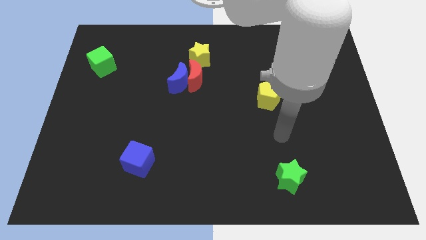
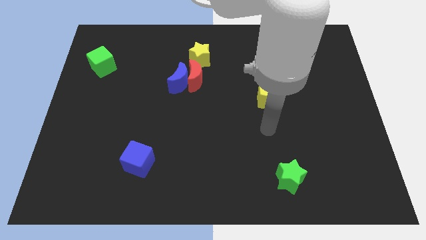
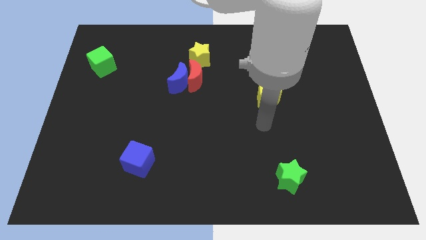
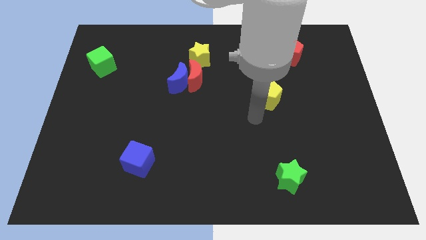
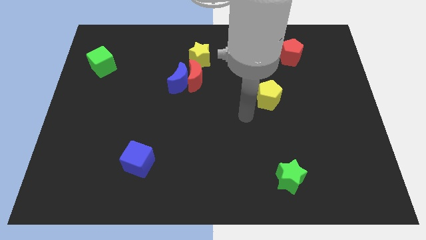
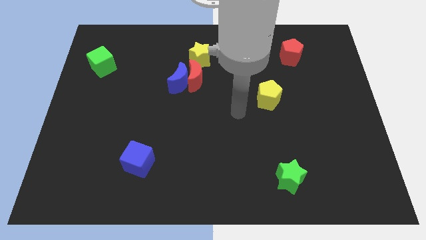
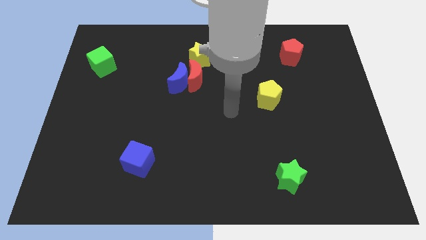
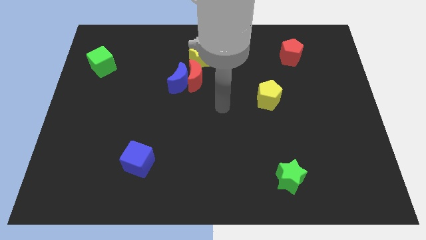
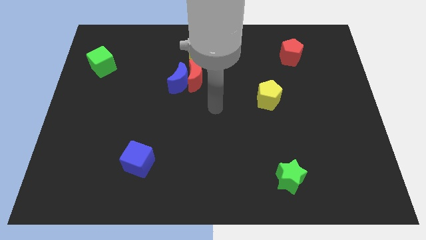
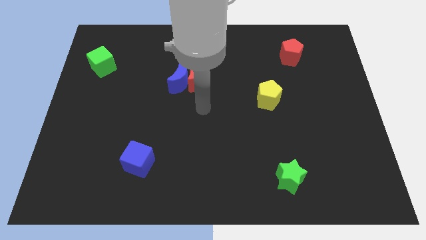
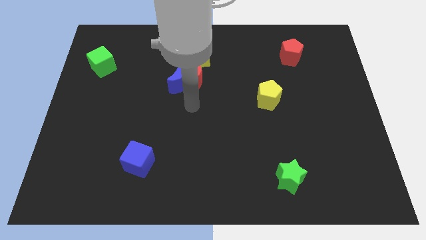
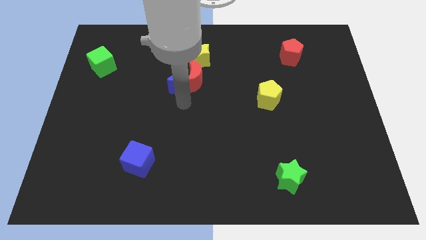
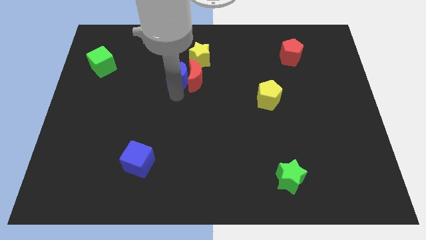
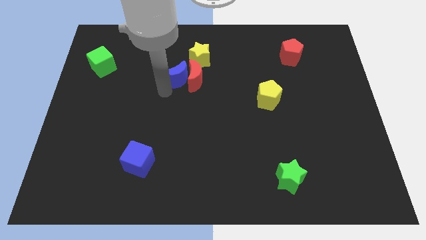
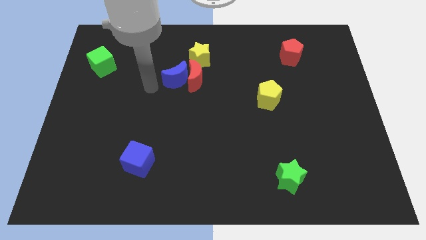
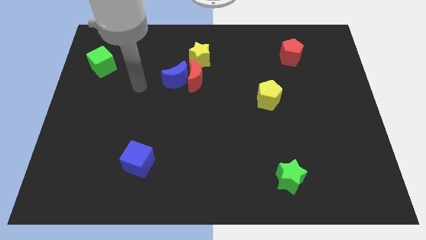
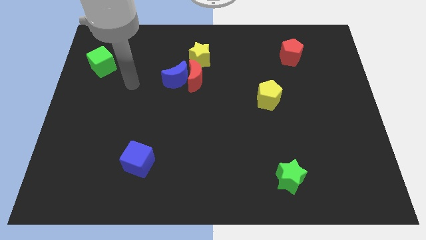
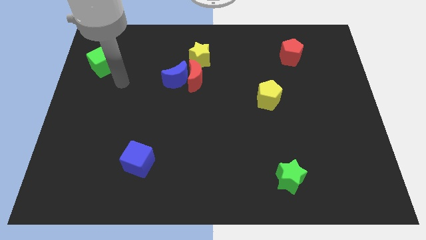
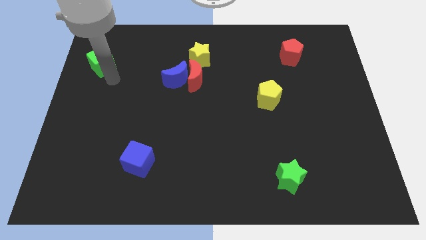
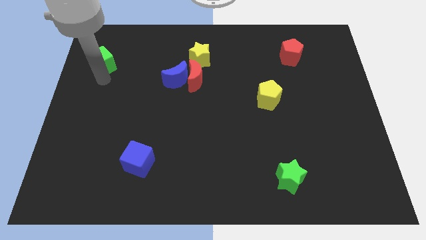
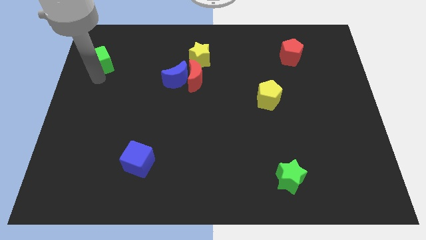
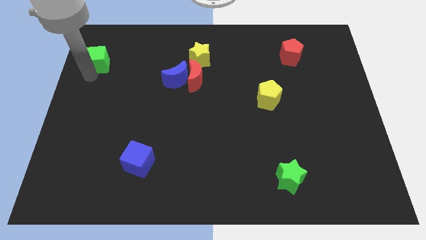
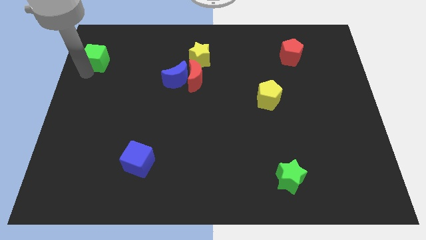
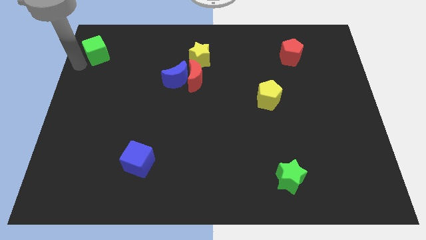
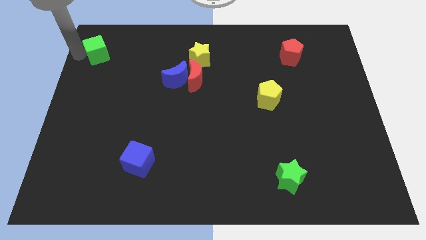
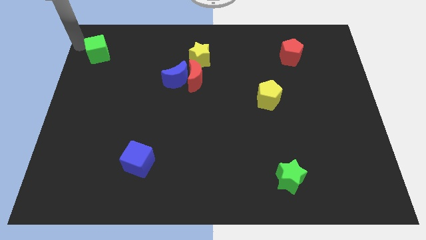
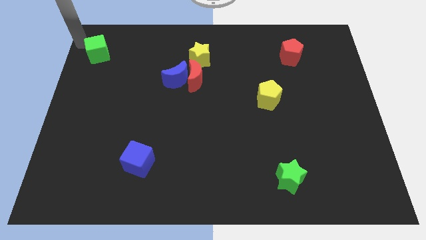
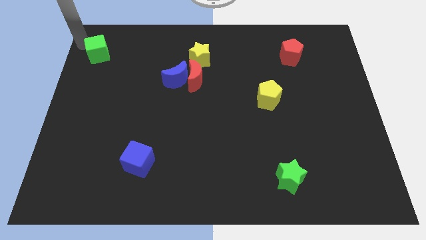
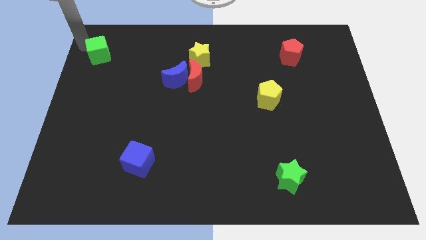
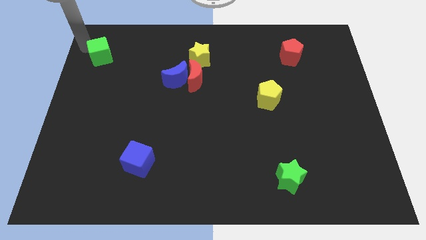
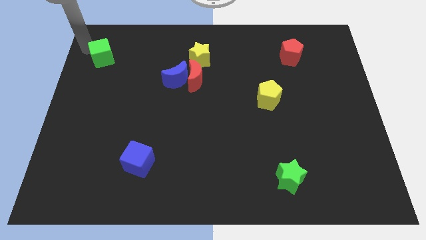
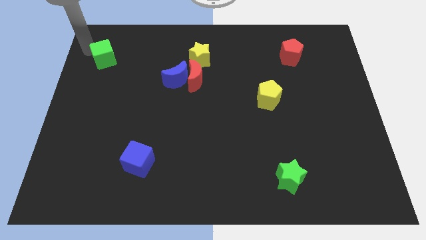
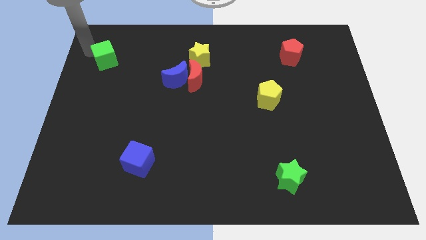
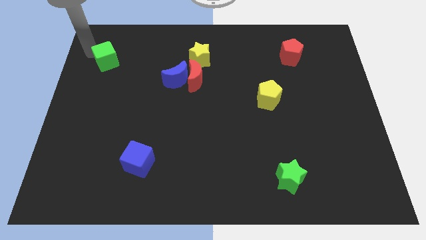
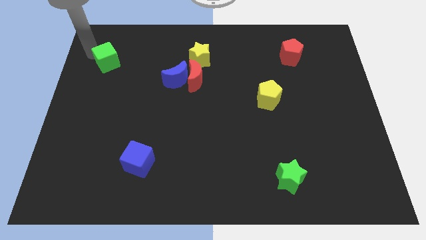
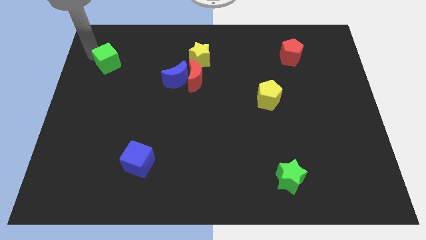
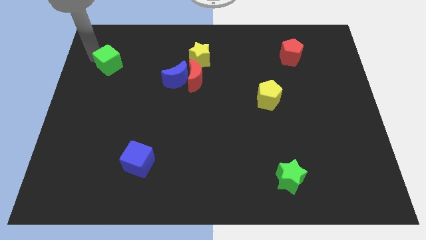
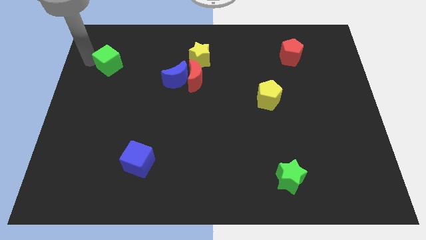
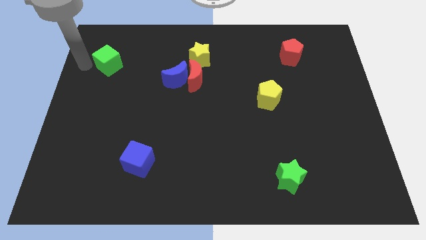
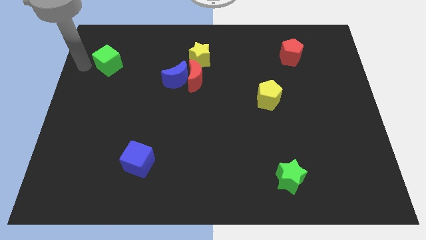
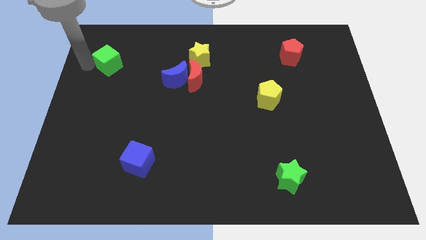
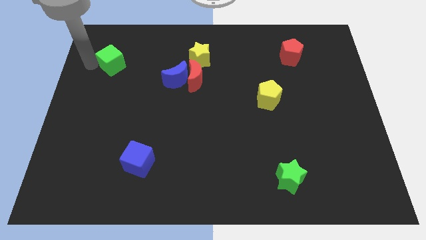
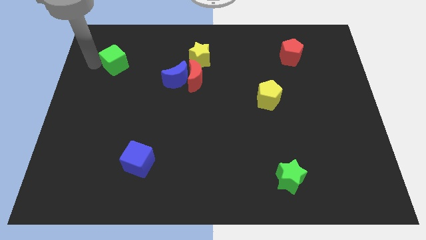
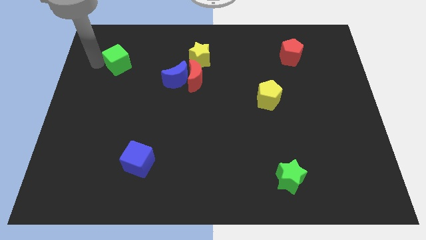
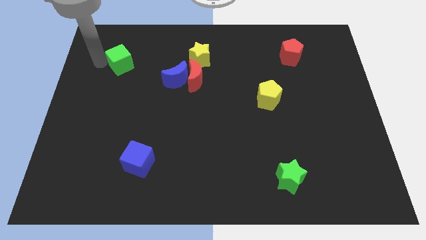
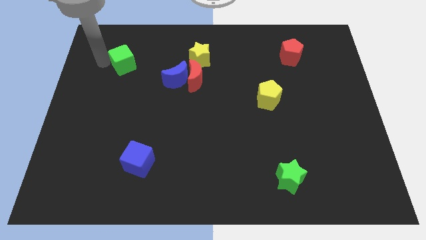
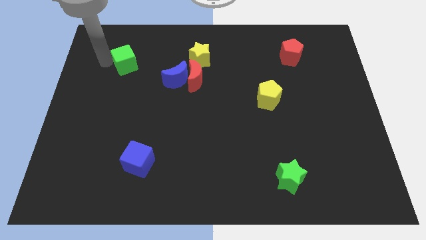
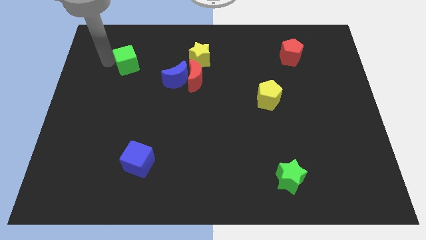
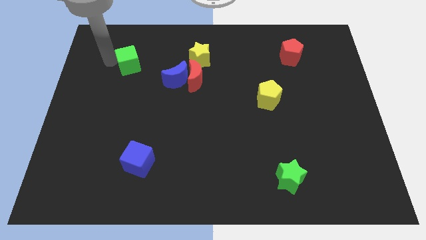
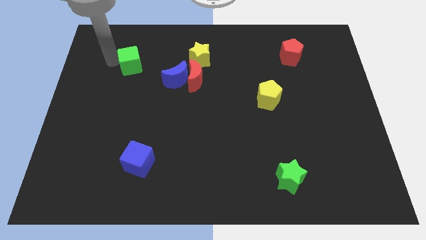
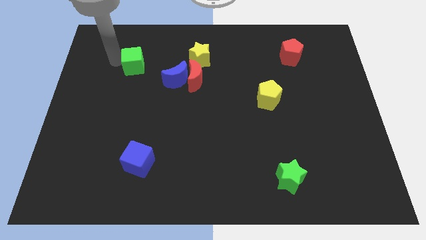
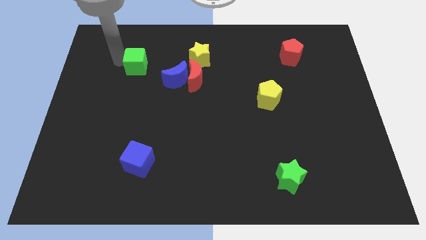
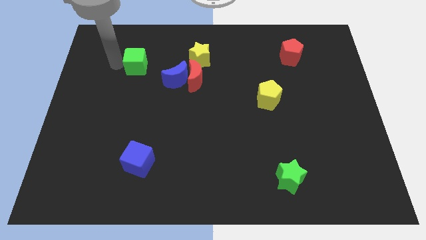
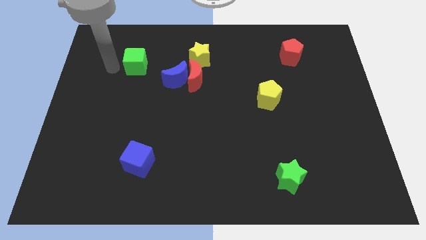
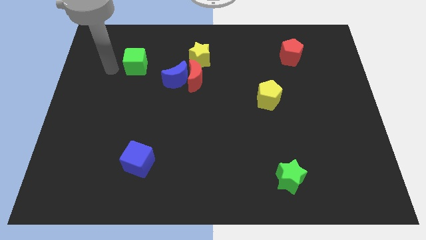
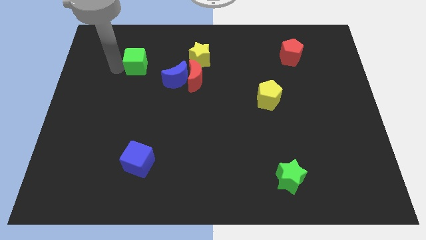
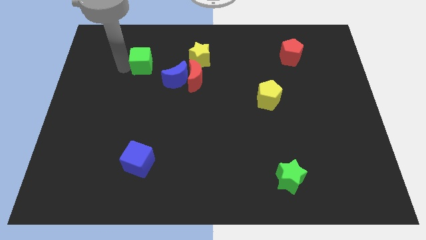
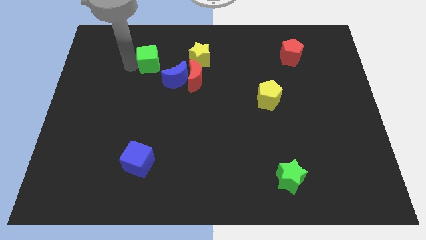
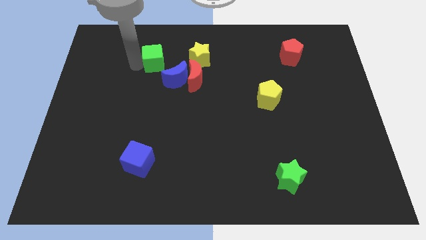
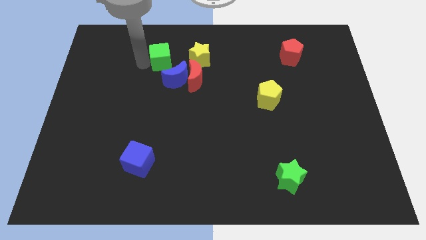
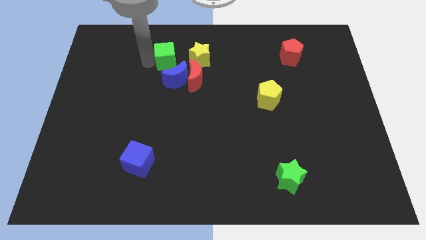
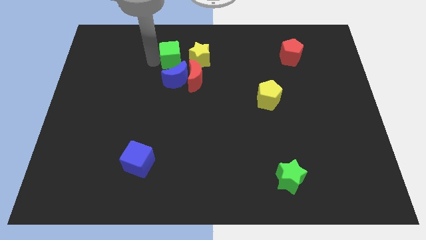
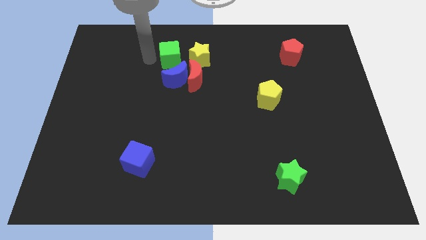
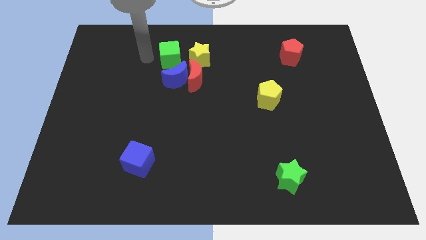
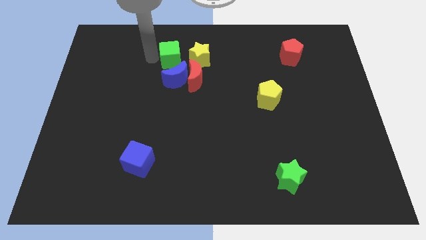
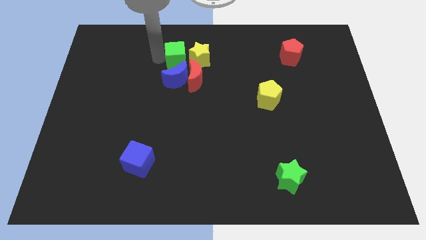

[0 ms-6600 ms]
move the green cube next to the yellow star

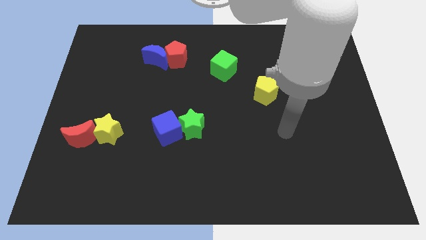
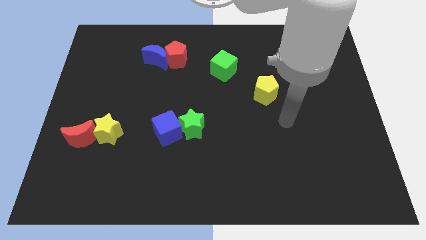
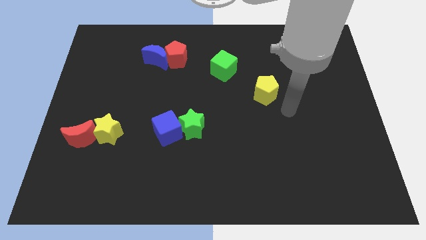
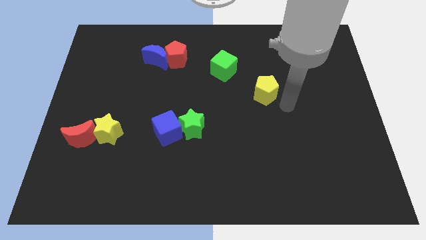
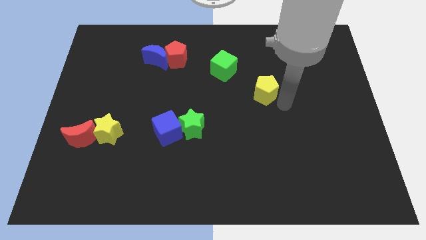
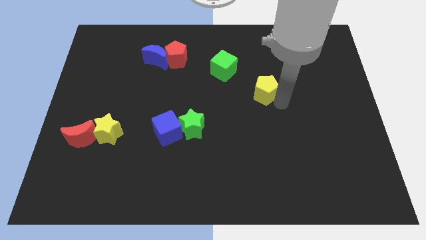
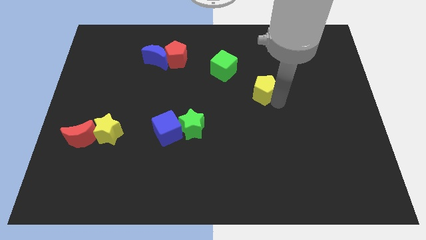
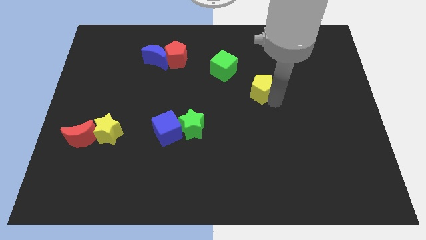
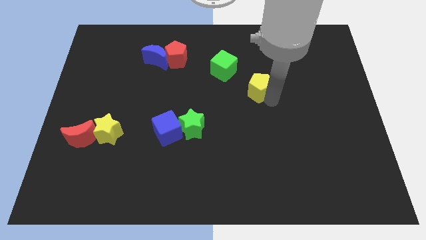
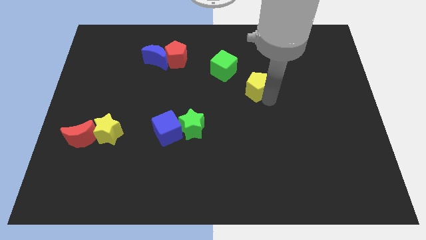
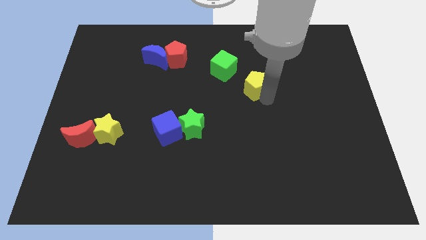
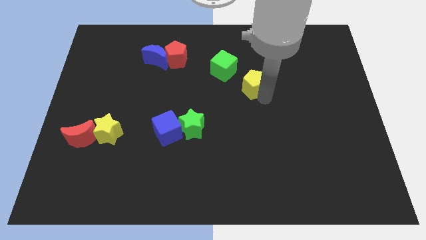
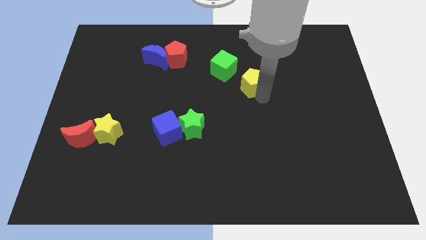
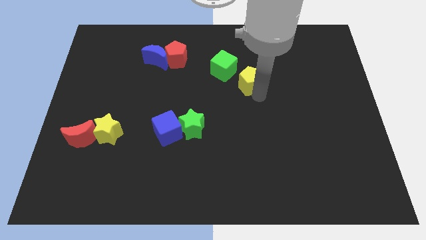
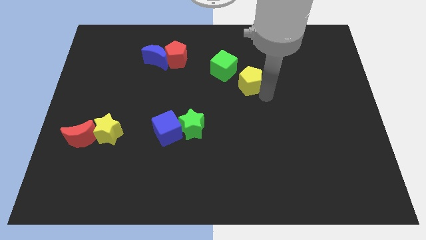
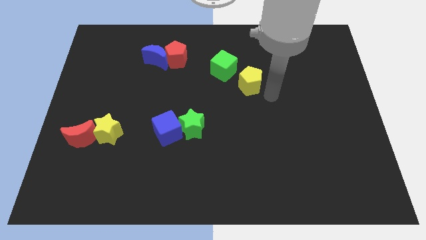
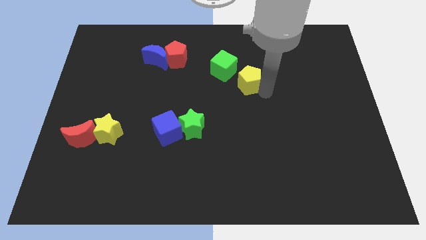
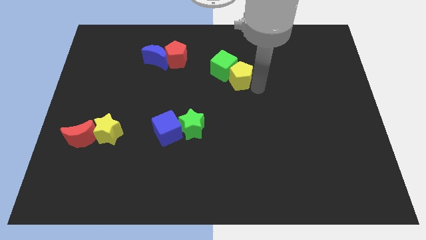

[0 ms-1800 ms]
push the yellow pentagon close to the green cube

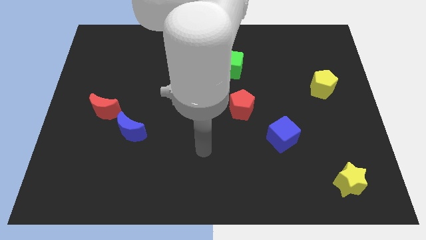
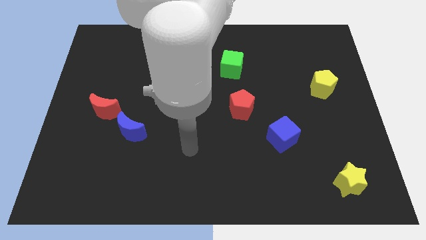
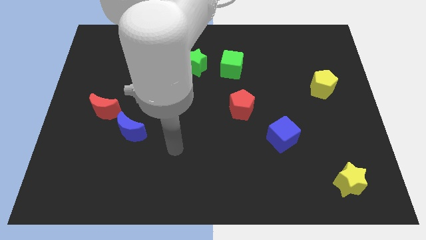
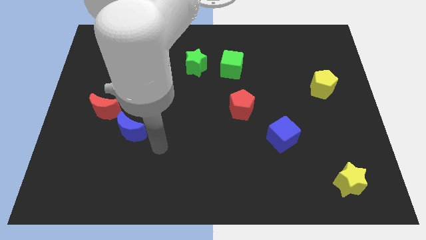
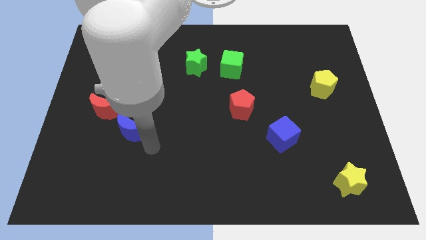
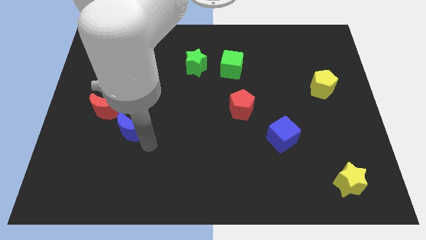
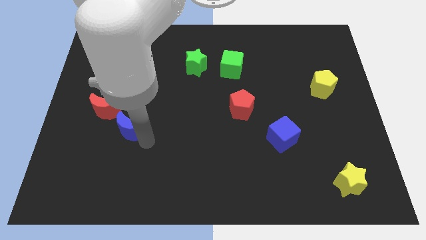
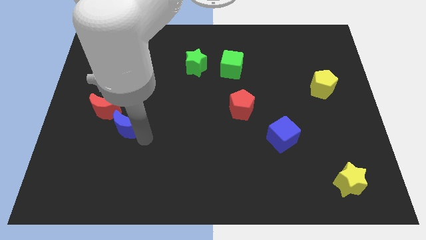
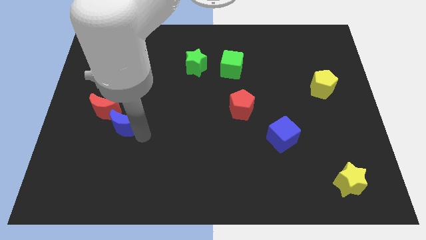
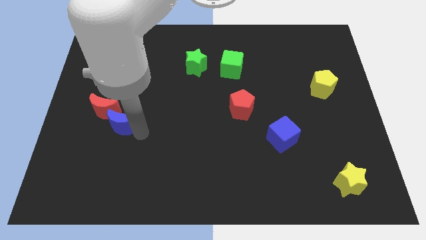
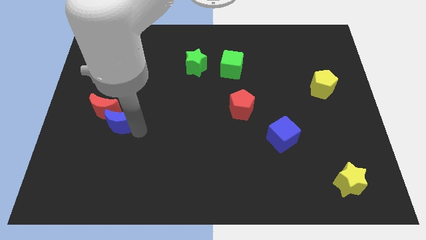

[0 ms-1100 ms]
slide the blue moon towards the red moon
